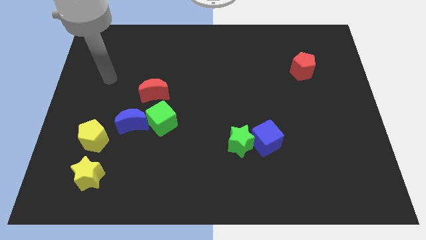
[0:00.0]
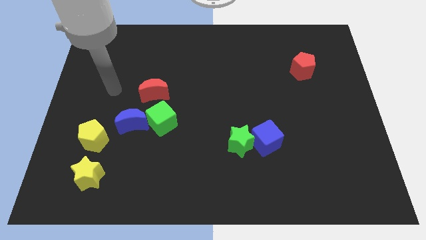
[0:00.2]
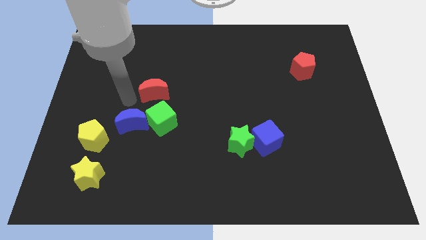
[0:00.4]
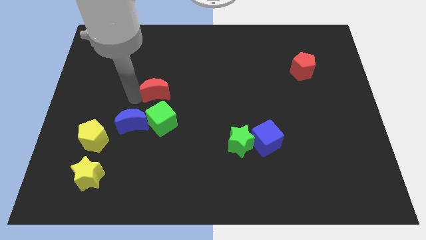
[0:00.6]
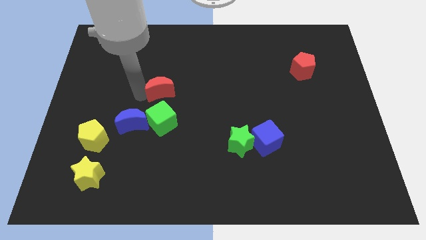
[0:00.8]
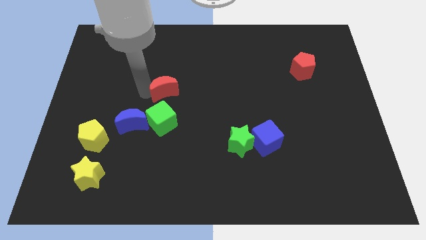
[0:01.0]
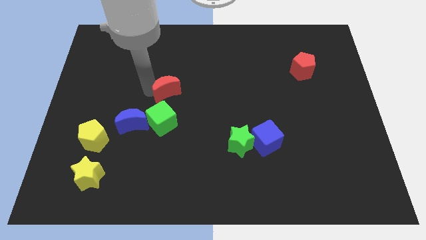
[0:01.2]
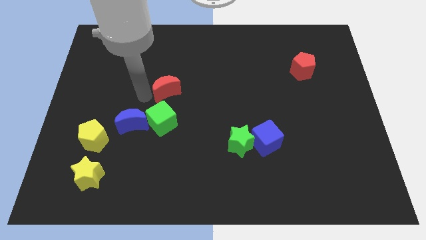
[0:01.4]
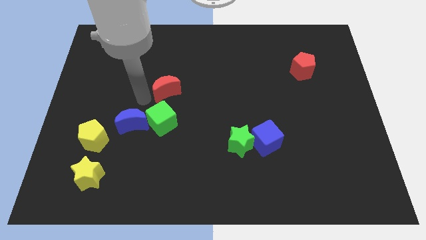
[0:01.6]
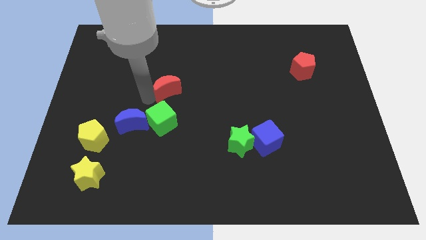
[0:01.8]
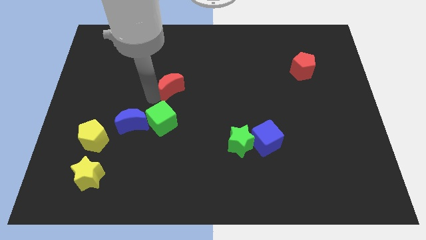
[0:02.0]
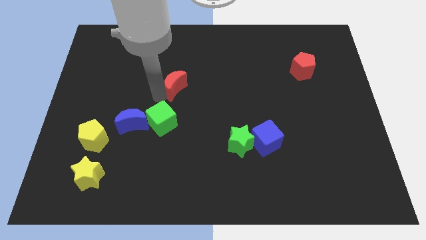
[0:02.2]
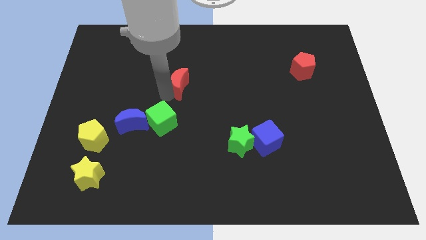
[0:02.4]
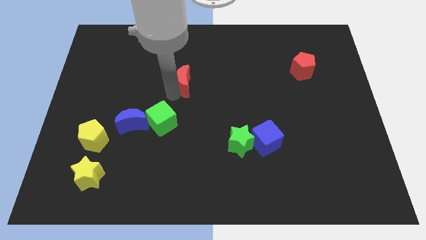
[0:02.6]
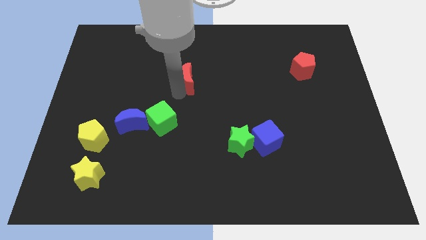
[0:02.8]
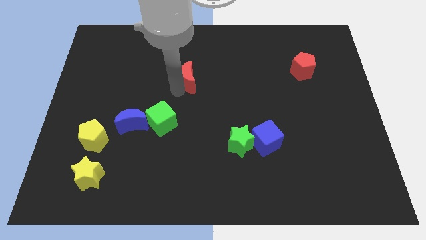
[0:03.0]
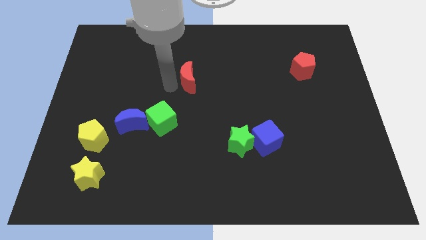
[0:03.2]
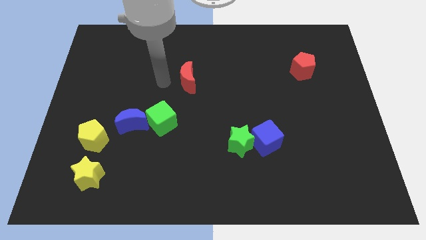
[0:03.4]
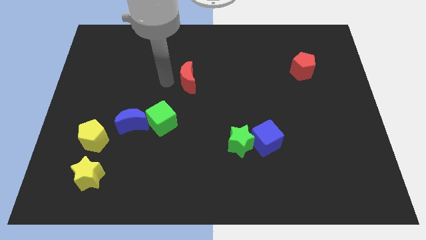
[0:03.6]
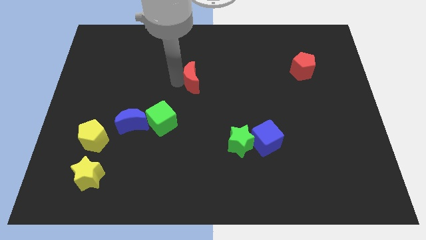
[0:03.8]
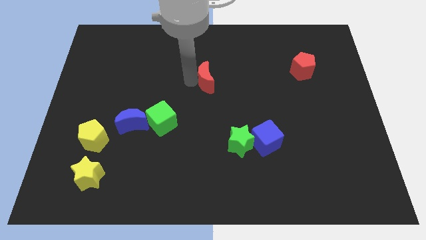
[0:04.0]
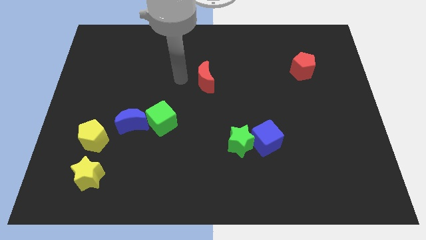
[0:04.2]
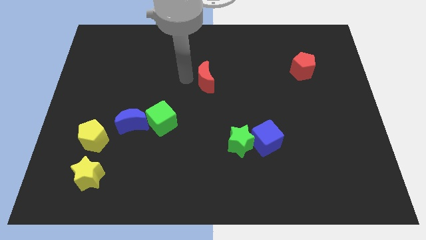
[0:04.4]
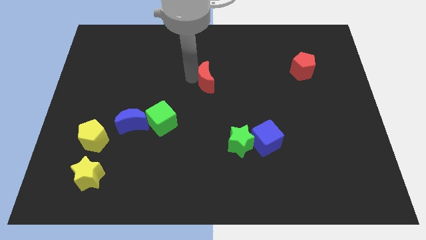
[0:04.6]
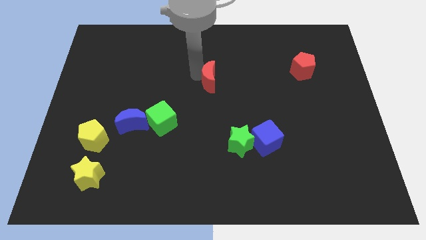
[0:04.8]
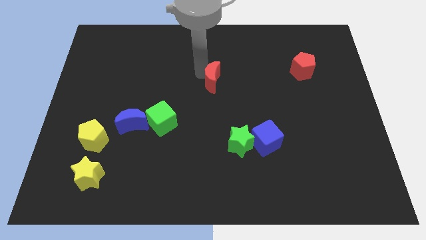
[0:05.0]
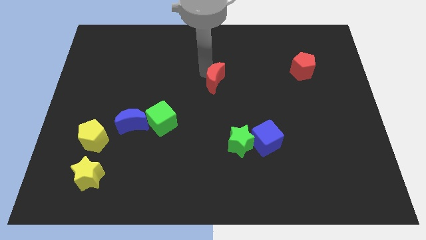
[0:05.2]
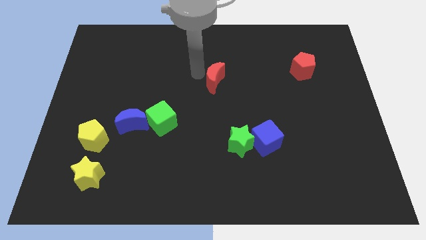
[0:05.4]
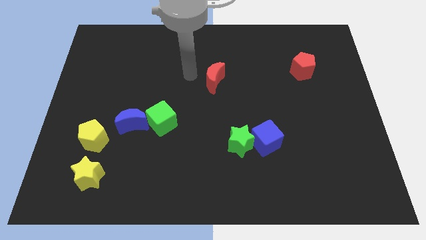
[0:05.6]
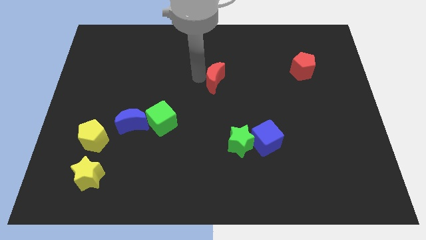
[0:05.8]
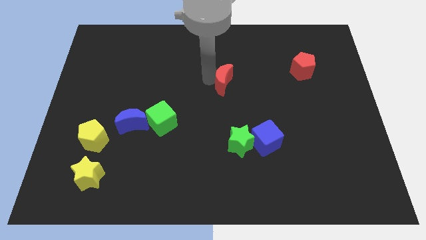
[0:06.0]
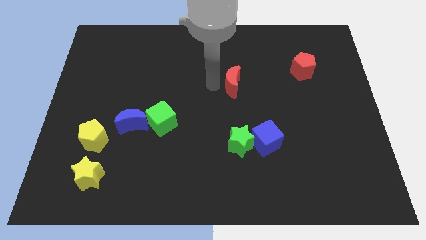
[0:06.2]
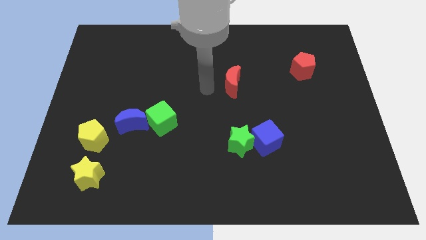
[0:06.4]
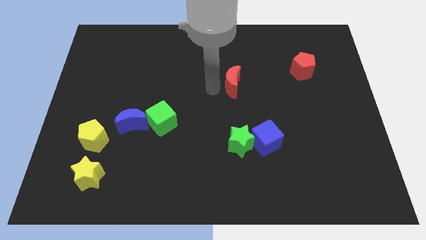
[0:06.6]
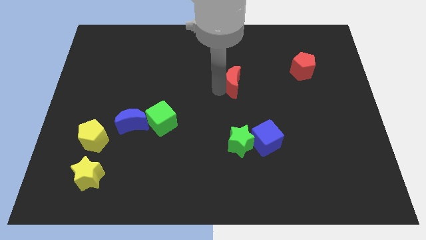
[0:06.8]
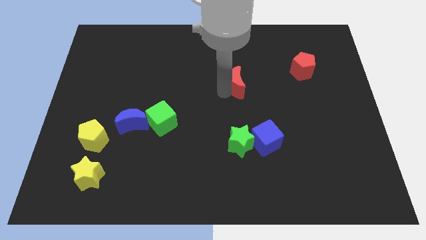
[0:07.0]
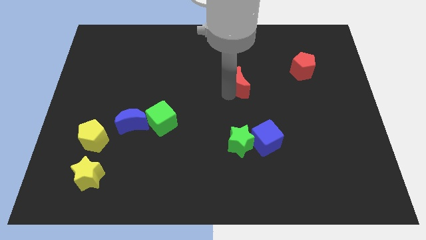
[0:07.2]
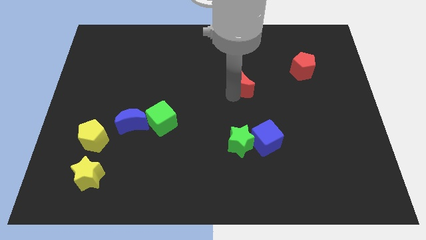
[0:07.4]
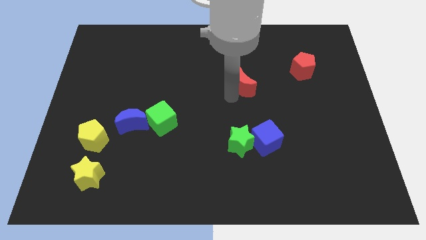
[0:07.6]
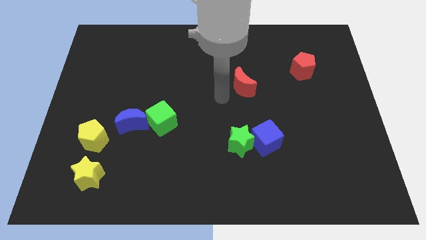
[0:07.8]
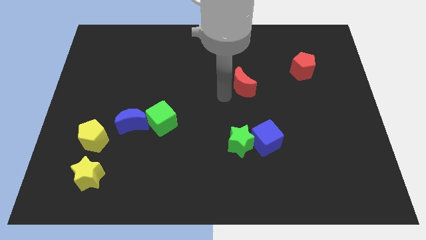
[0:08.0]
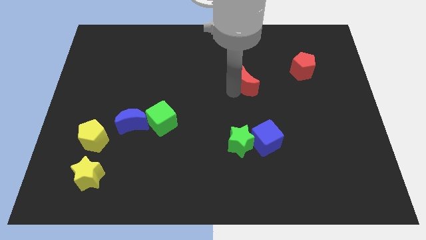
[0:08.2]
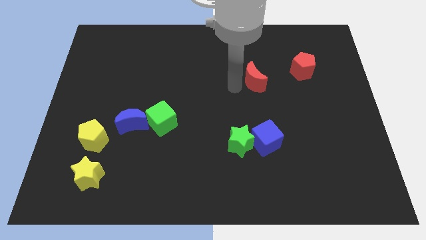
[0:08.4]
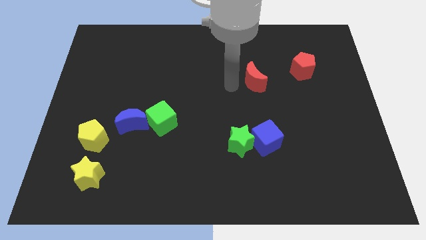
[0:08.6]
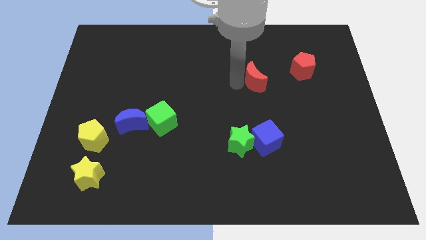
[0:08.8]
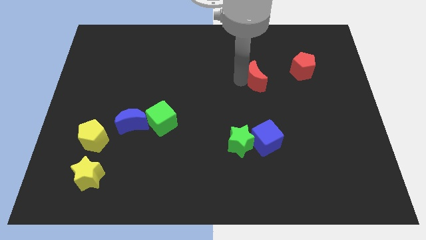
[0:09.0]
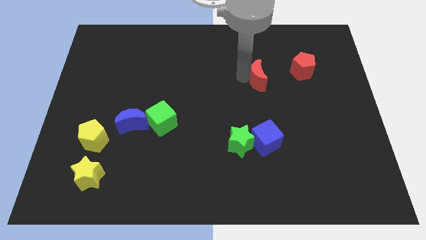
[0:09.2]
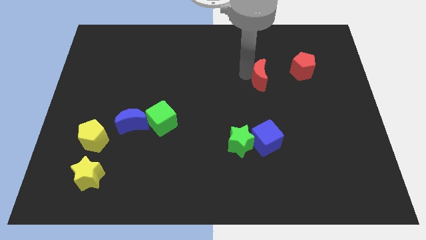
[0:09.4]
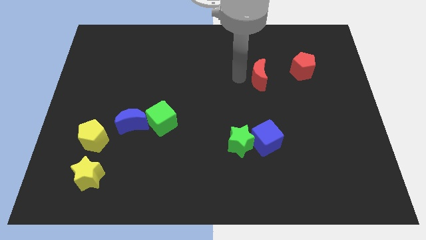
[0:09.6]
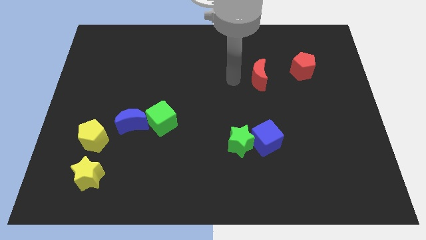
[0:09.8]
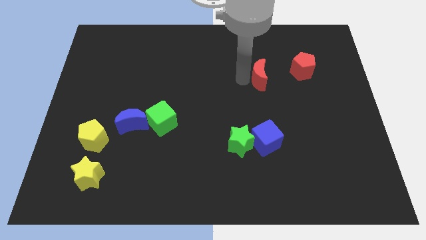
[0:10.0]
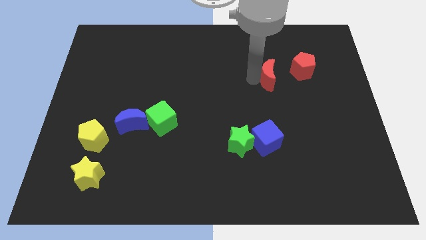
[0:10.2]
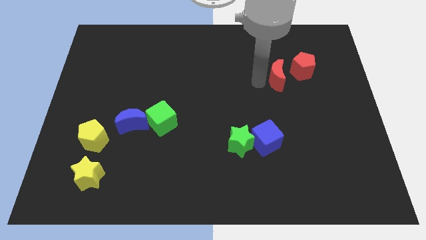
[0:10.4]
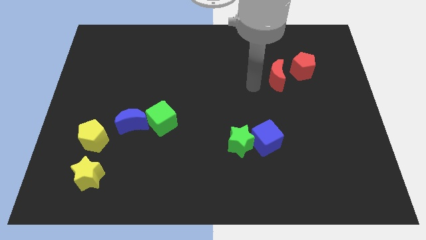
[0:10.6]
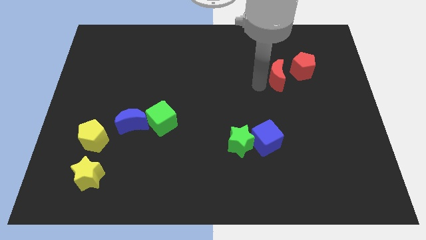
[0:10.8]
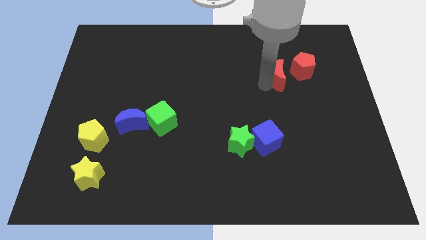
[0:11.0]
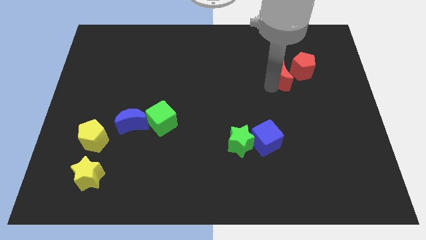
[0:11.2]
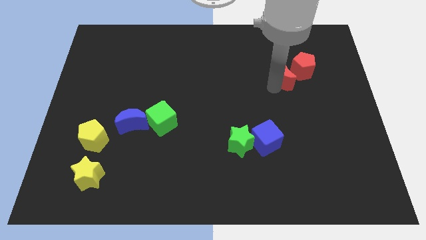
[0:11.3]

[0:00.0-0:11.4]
move the red moon to the red pentagon

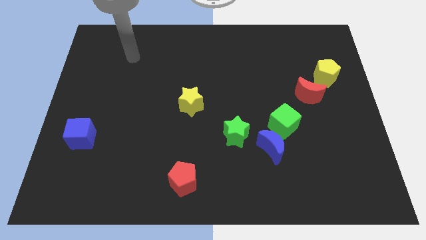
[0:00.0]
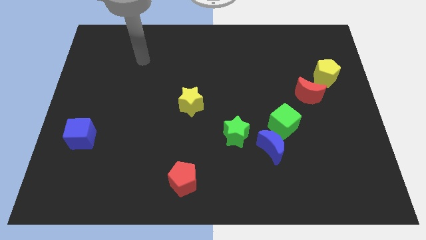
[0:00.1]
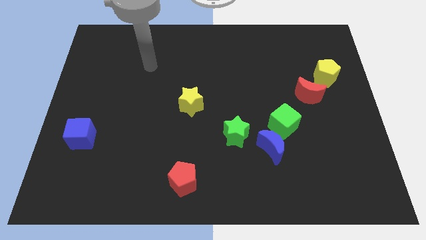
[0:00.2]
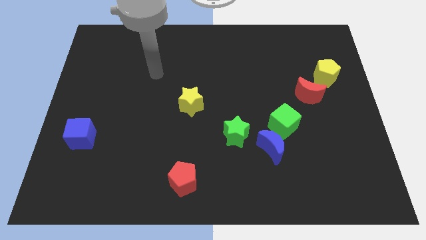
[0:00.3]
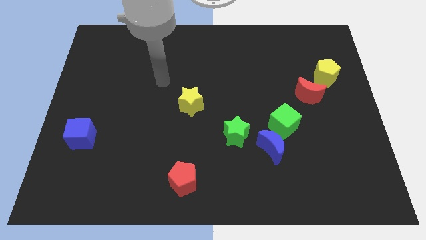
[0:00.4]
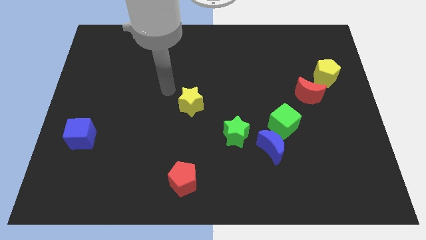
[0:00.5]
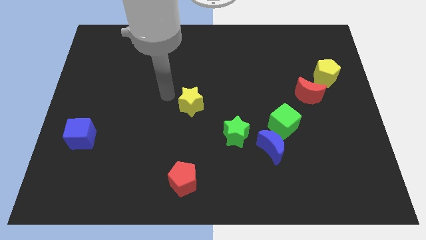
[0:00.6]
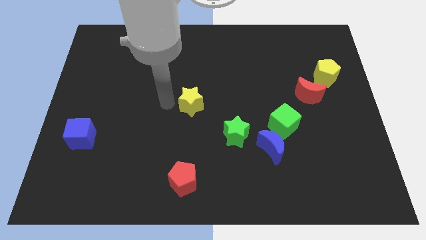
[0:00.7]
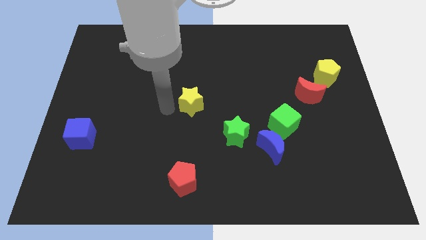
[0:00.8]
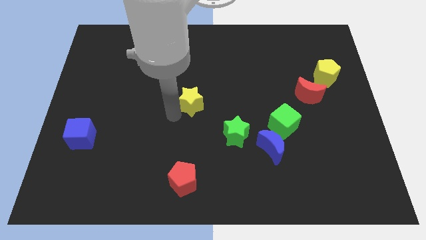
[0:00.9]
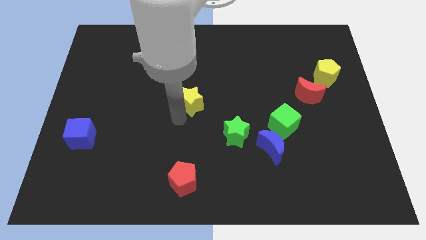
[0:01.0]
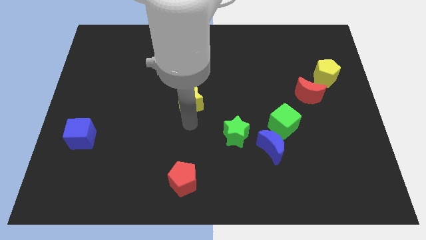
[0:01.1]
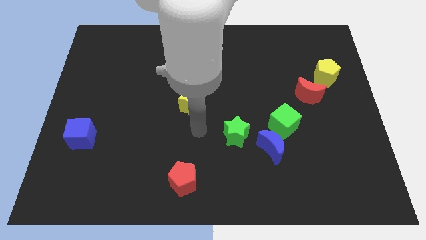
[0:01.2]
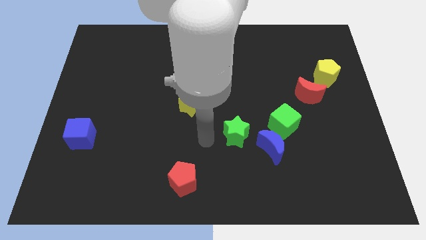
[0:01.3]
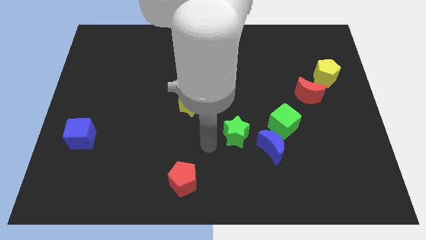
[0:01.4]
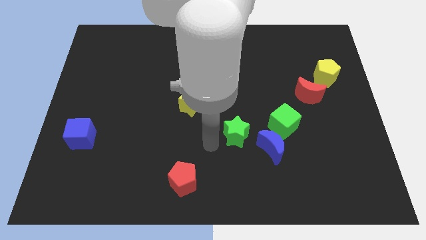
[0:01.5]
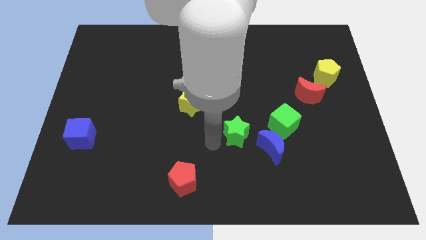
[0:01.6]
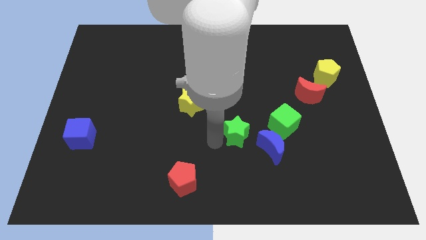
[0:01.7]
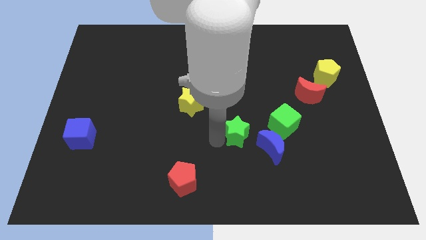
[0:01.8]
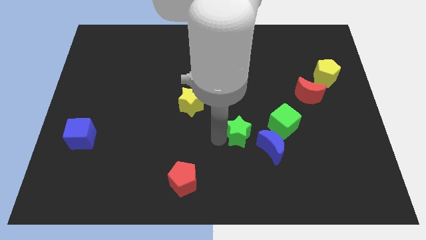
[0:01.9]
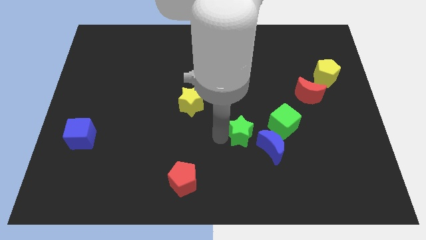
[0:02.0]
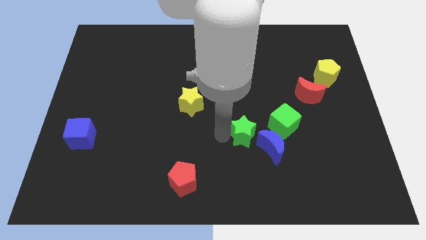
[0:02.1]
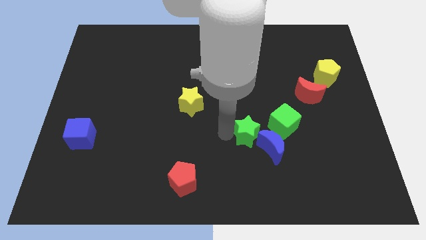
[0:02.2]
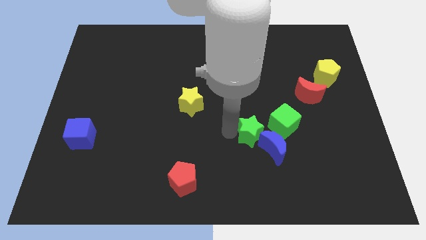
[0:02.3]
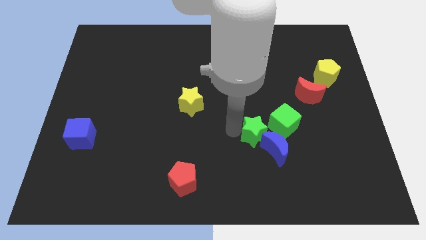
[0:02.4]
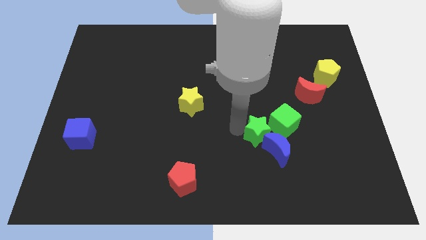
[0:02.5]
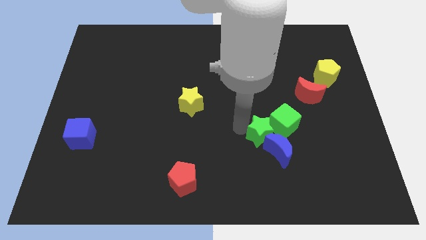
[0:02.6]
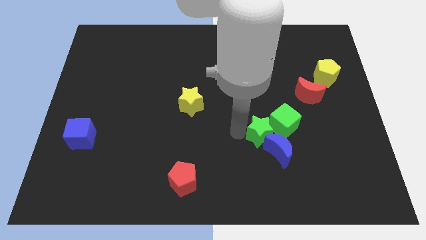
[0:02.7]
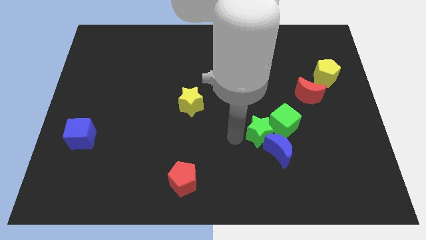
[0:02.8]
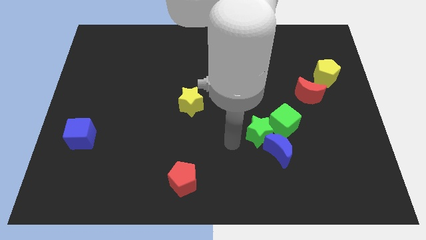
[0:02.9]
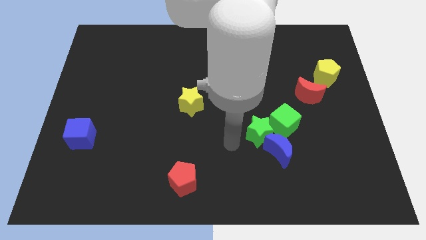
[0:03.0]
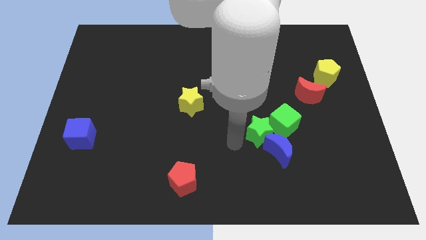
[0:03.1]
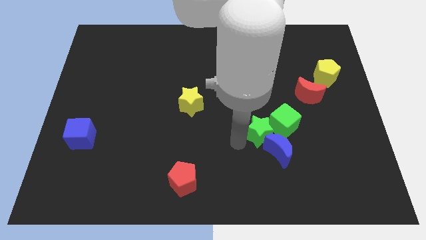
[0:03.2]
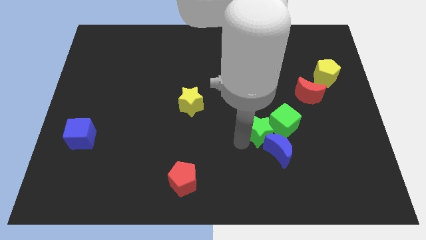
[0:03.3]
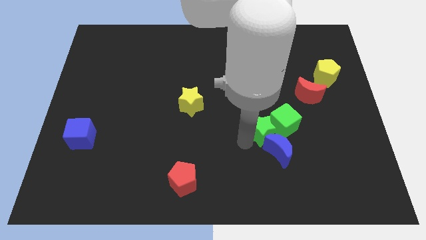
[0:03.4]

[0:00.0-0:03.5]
put the green star to the green cube
